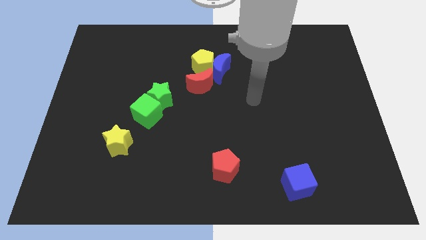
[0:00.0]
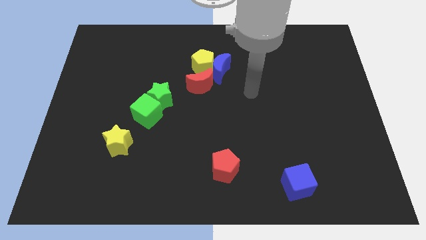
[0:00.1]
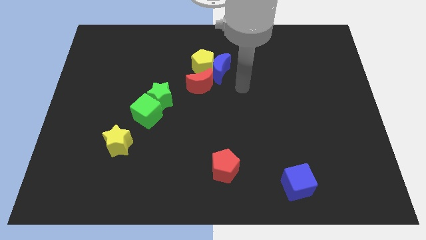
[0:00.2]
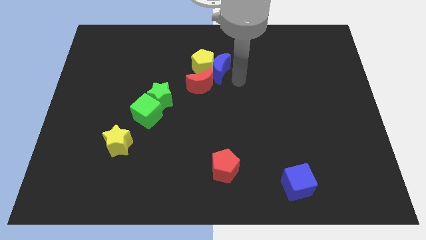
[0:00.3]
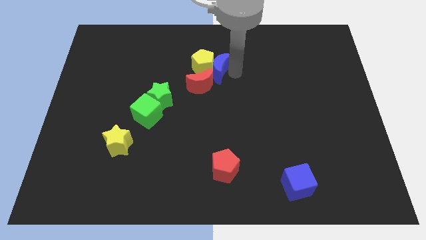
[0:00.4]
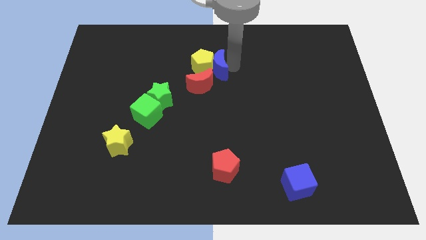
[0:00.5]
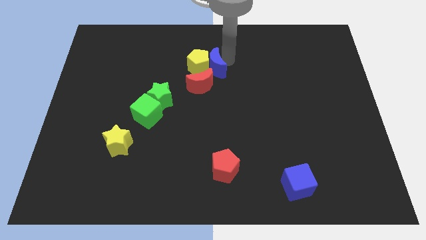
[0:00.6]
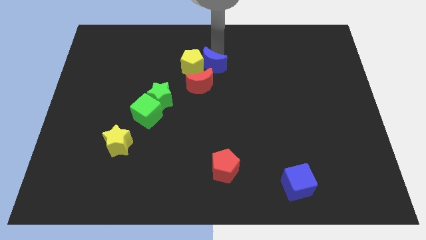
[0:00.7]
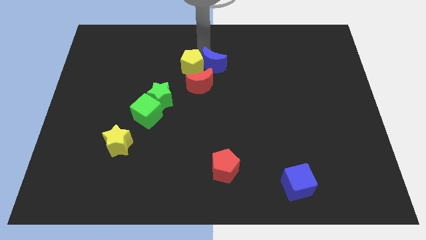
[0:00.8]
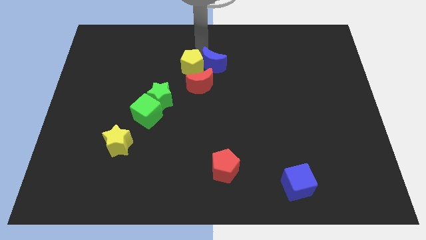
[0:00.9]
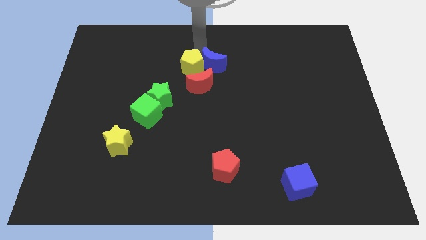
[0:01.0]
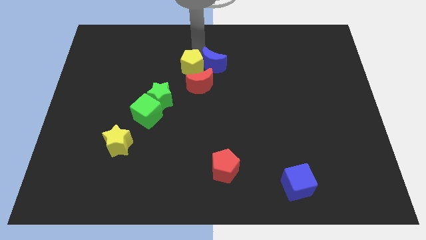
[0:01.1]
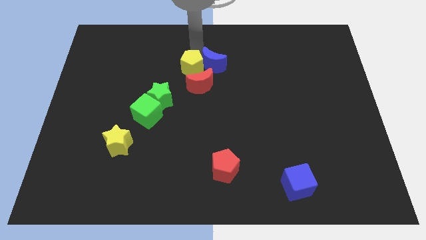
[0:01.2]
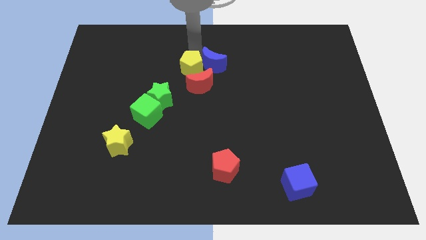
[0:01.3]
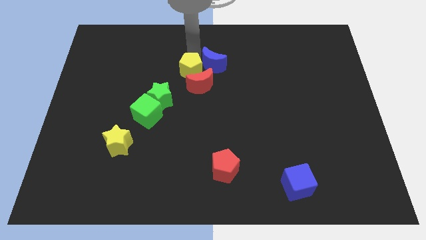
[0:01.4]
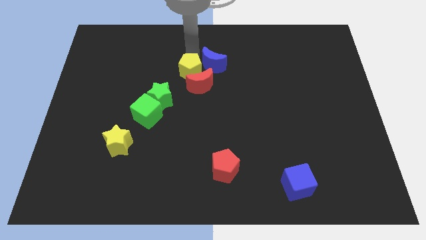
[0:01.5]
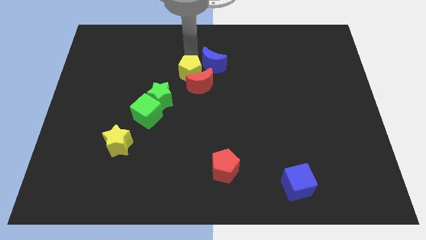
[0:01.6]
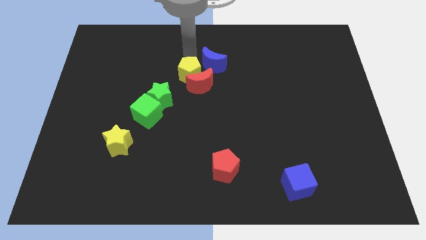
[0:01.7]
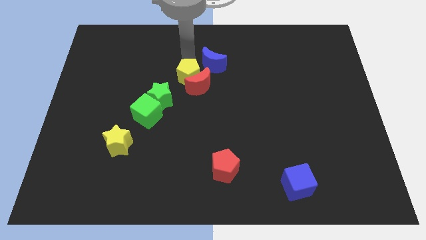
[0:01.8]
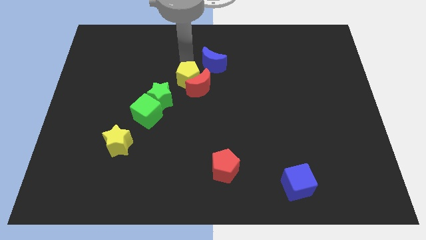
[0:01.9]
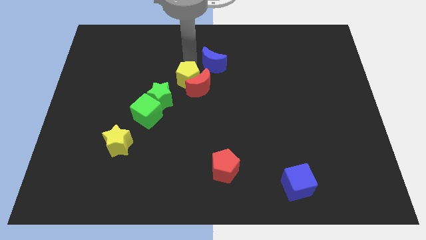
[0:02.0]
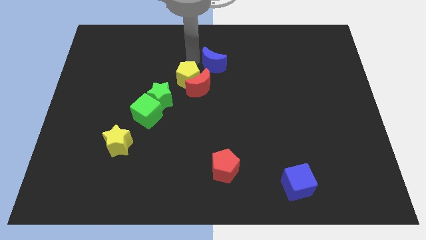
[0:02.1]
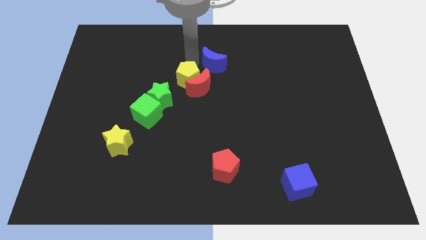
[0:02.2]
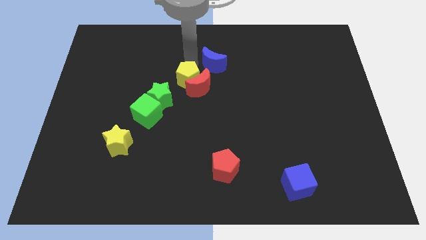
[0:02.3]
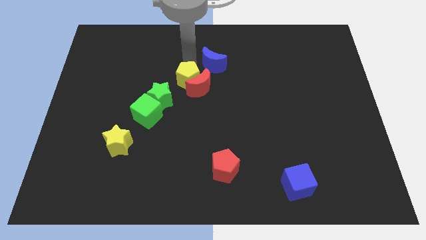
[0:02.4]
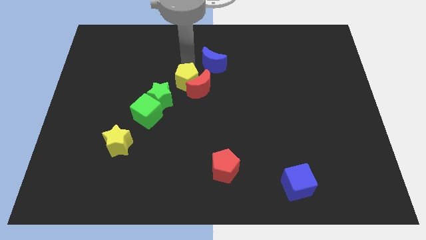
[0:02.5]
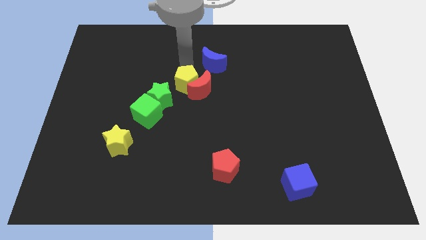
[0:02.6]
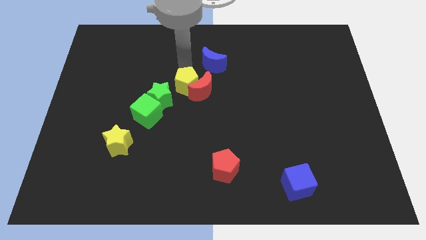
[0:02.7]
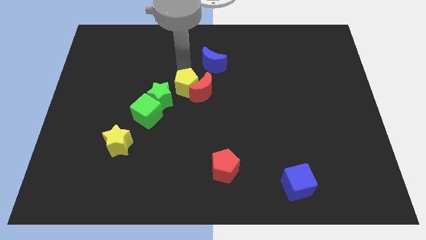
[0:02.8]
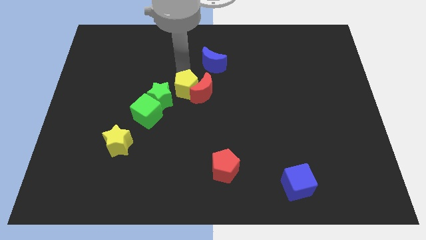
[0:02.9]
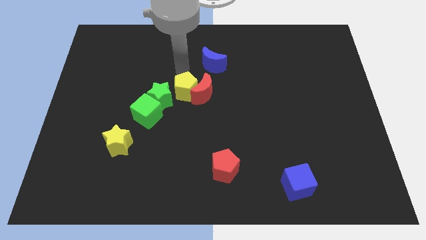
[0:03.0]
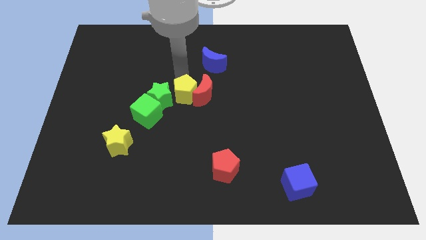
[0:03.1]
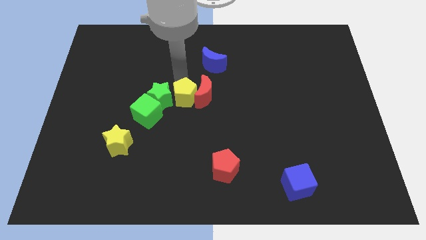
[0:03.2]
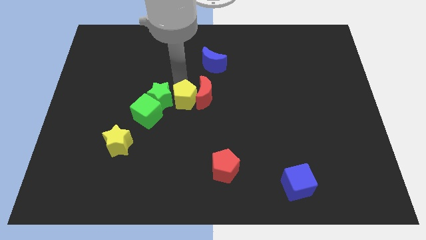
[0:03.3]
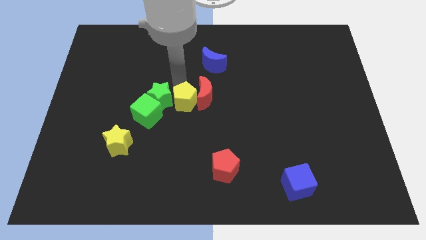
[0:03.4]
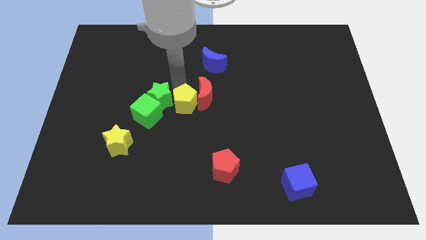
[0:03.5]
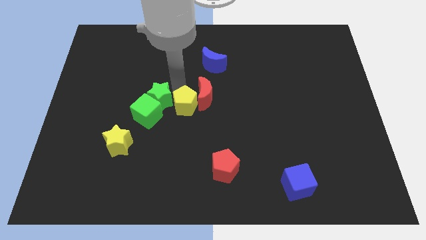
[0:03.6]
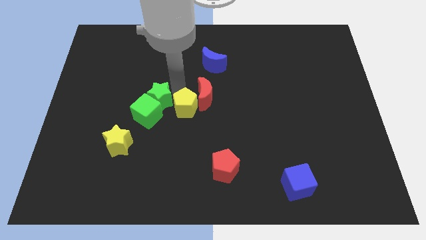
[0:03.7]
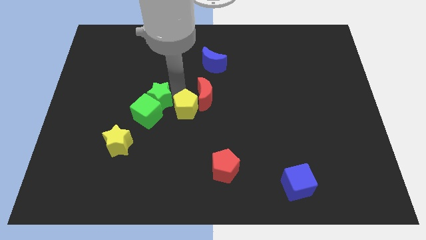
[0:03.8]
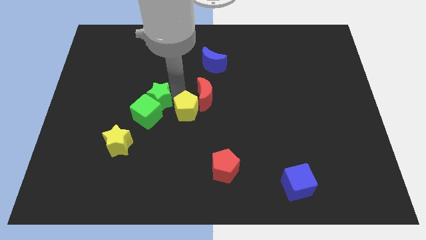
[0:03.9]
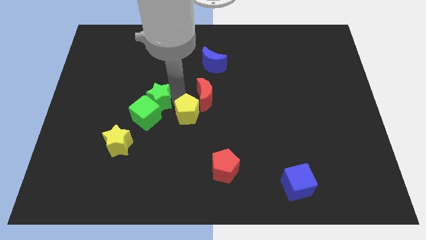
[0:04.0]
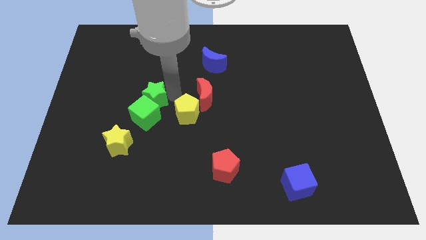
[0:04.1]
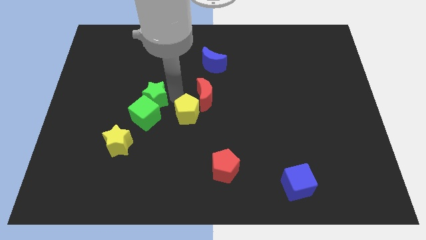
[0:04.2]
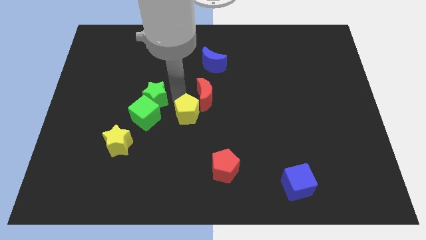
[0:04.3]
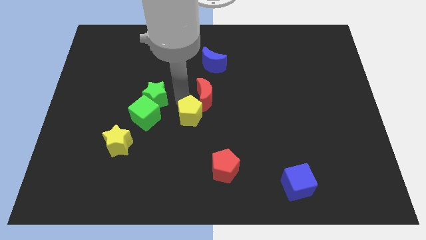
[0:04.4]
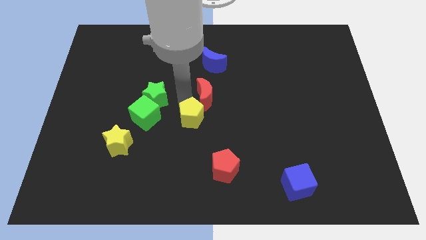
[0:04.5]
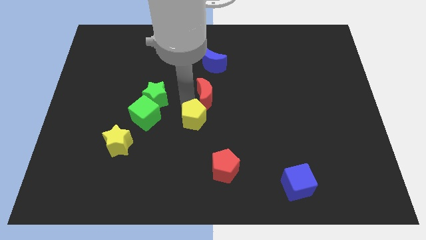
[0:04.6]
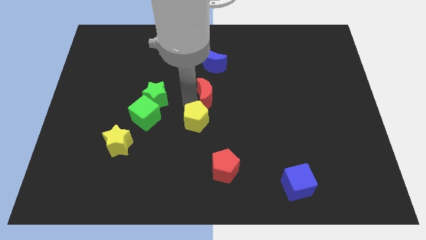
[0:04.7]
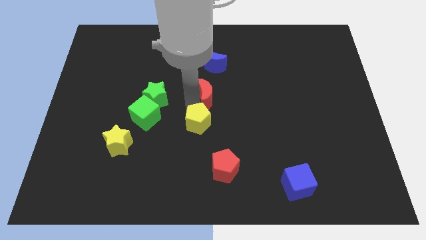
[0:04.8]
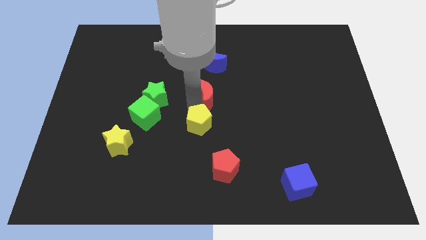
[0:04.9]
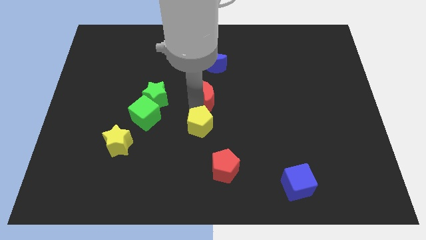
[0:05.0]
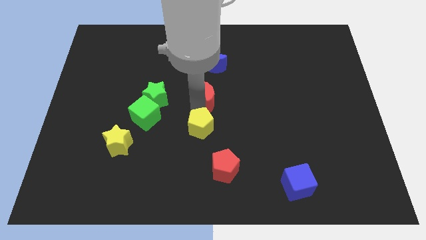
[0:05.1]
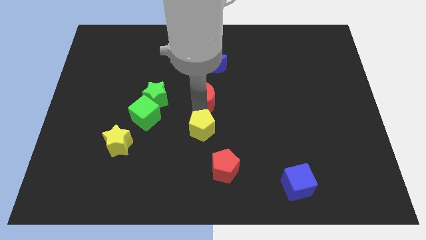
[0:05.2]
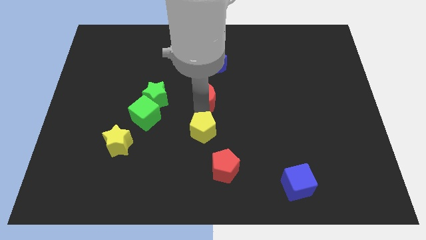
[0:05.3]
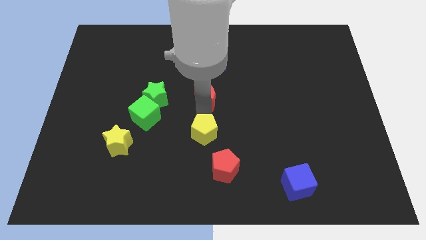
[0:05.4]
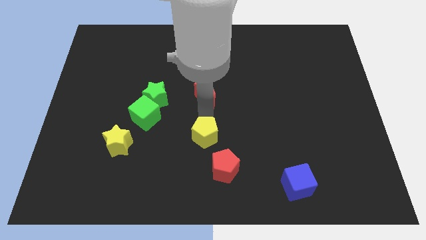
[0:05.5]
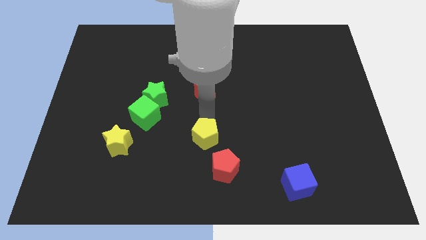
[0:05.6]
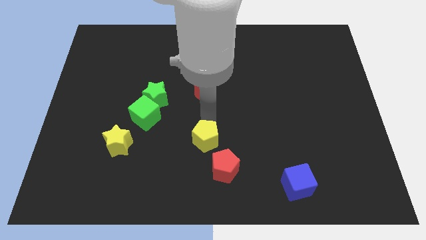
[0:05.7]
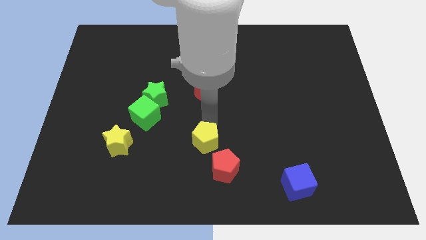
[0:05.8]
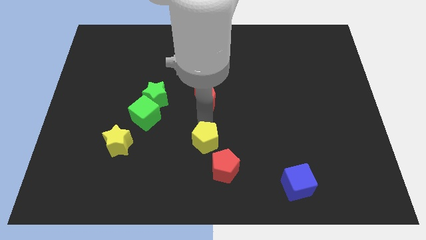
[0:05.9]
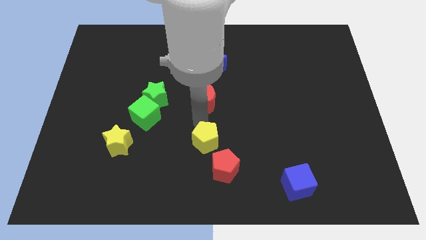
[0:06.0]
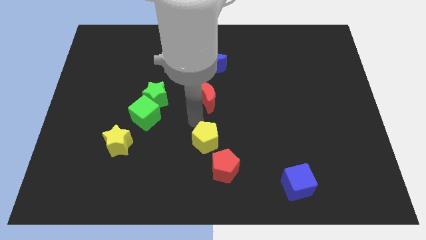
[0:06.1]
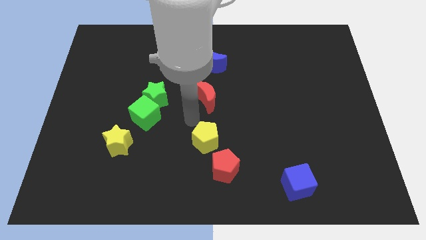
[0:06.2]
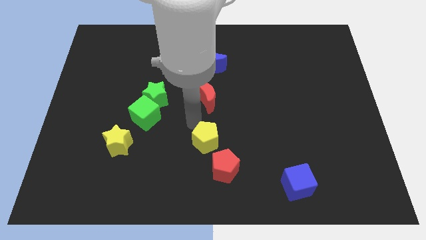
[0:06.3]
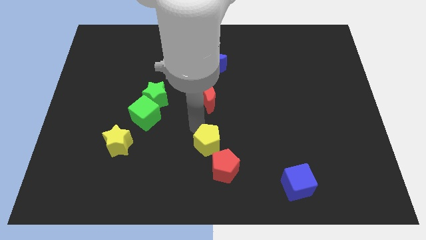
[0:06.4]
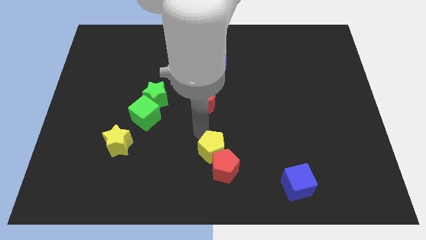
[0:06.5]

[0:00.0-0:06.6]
push the yellow pentagon to the red pentagon
